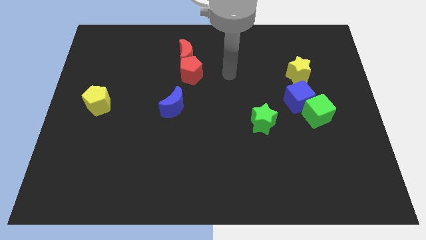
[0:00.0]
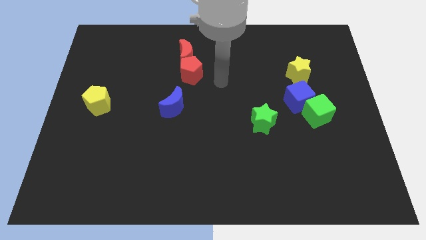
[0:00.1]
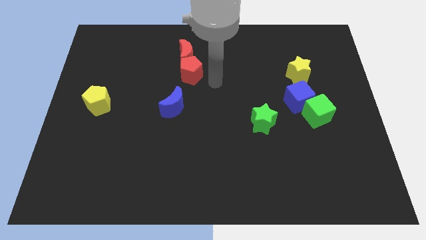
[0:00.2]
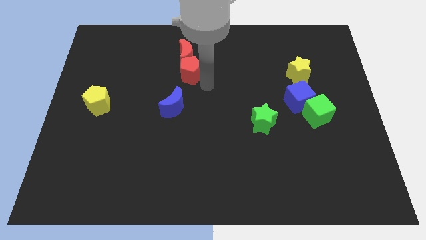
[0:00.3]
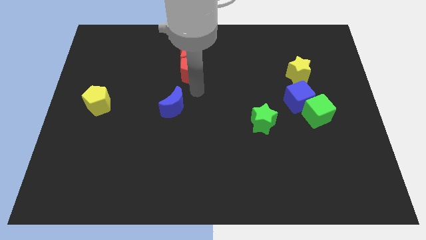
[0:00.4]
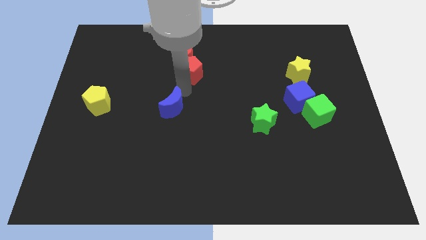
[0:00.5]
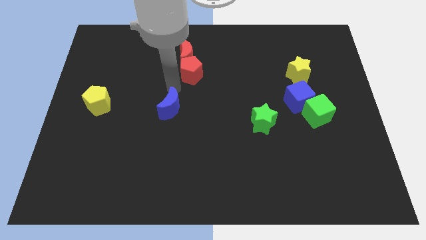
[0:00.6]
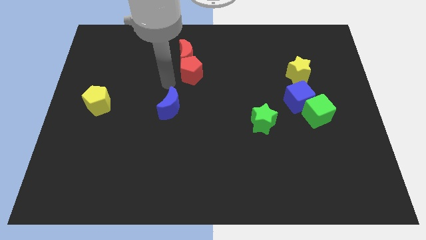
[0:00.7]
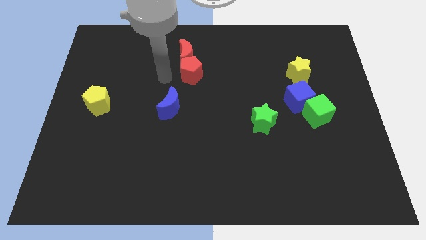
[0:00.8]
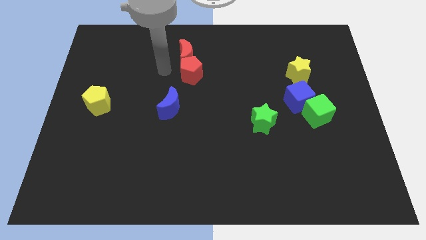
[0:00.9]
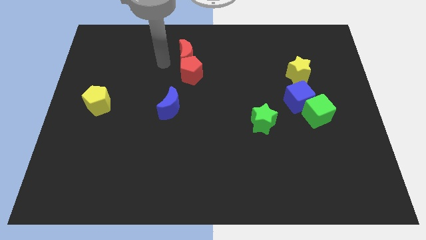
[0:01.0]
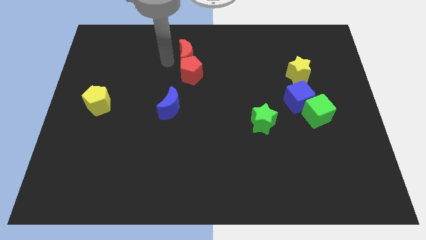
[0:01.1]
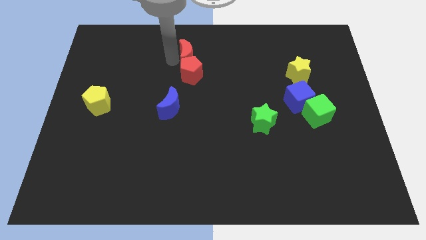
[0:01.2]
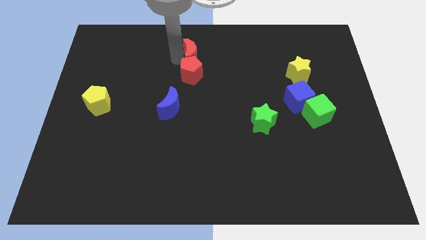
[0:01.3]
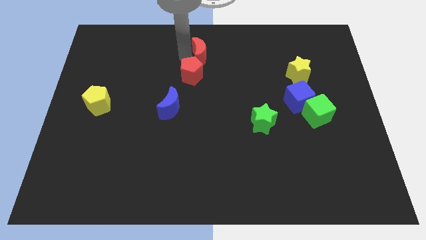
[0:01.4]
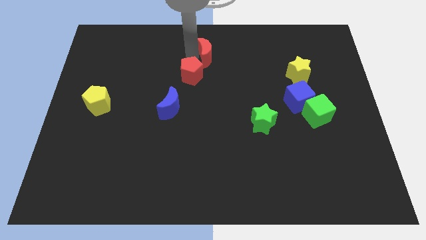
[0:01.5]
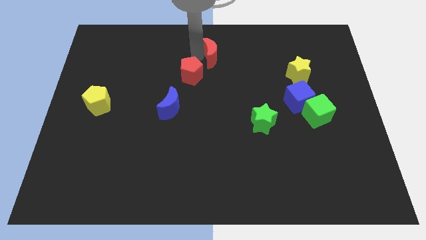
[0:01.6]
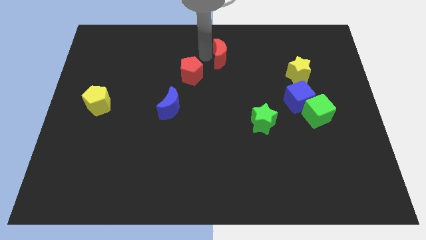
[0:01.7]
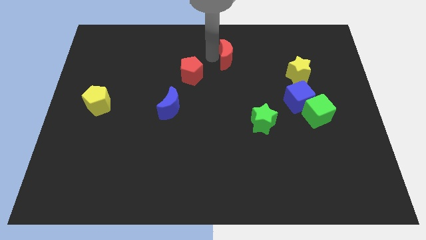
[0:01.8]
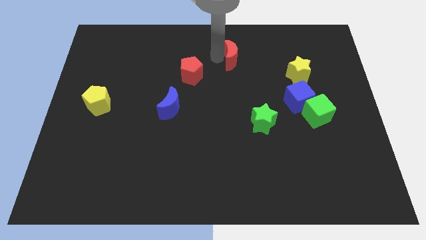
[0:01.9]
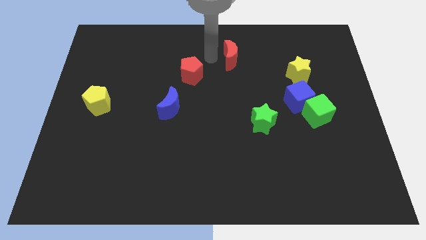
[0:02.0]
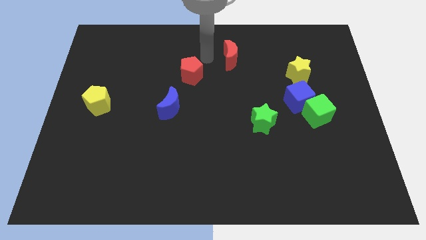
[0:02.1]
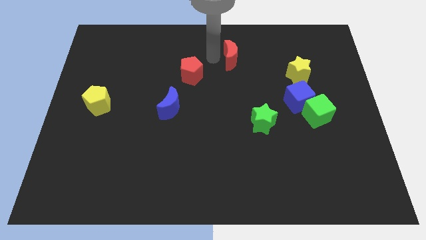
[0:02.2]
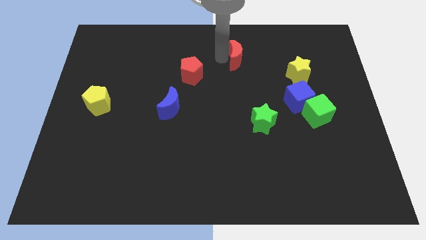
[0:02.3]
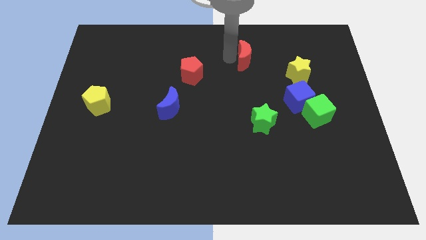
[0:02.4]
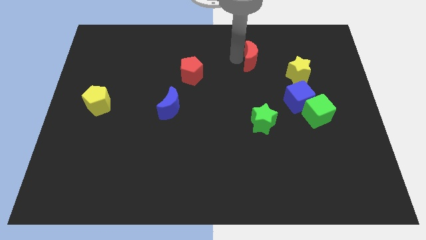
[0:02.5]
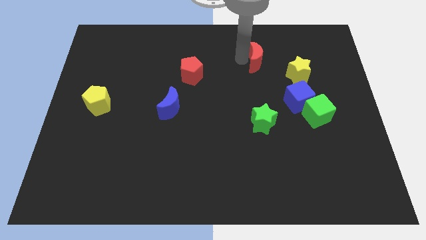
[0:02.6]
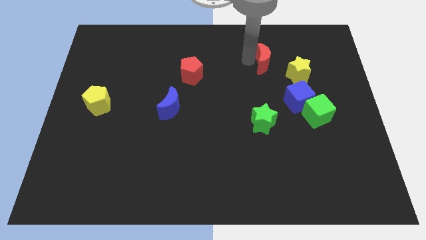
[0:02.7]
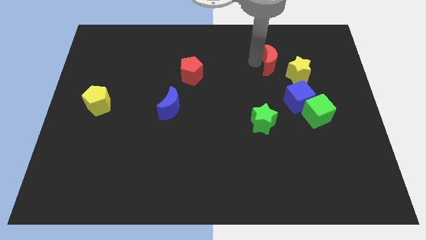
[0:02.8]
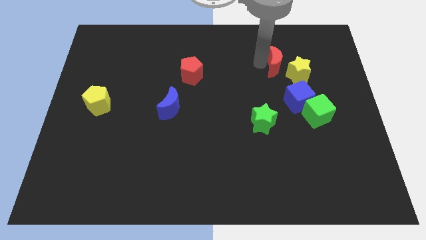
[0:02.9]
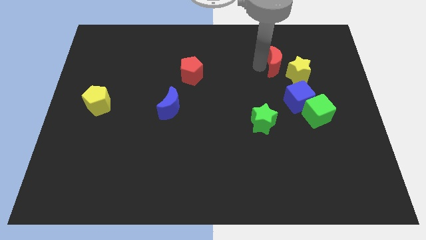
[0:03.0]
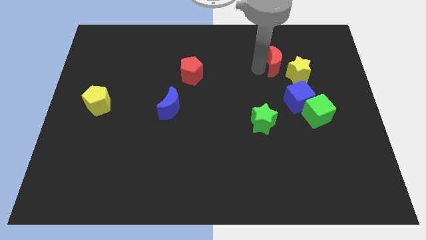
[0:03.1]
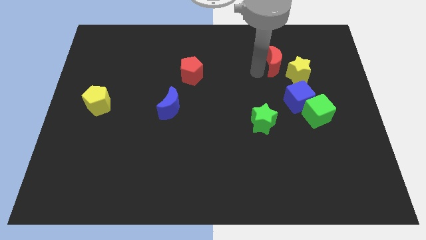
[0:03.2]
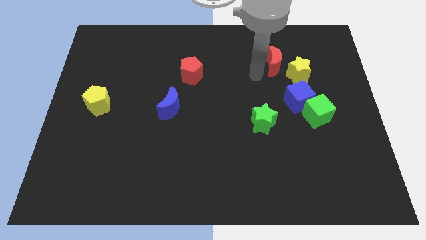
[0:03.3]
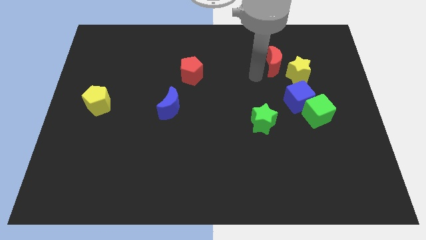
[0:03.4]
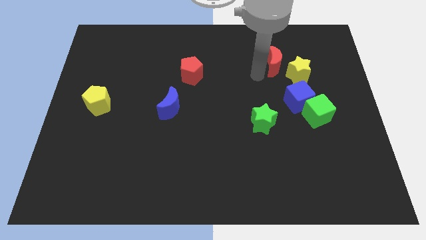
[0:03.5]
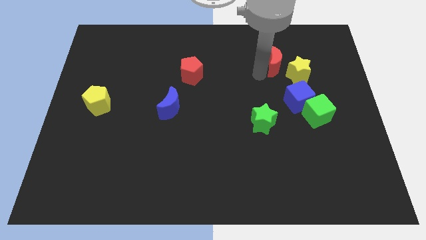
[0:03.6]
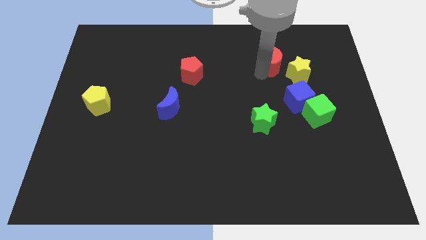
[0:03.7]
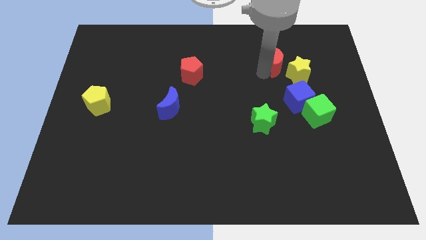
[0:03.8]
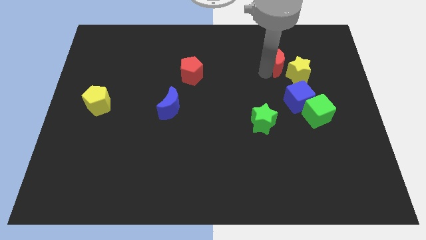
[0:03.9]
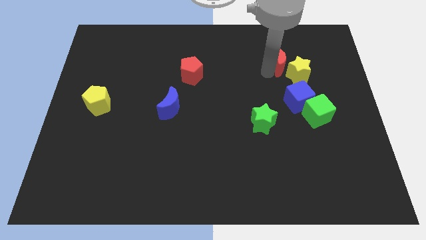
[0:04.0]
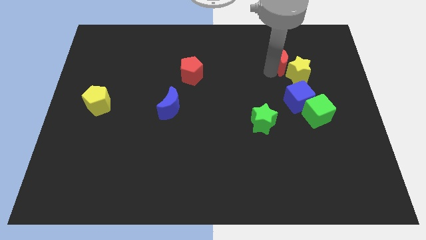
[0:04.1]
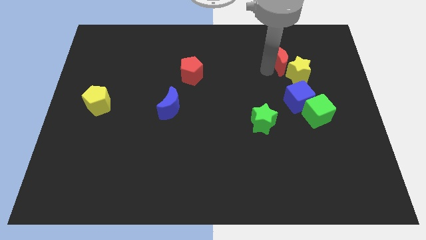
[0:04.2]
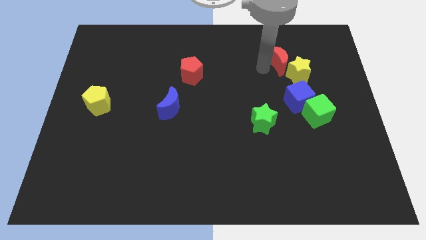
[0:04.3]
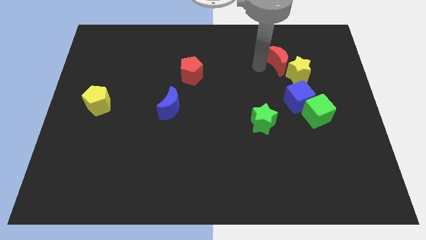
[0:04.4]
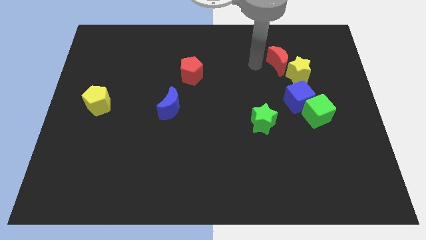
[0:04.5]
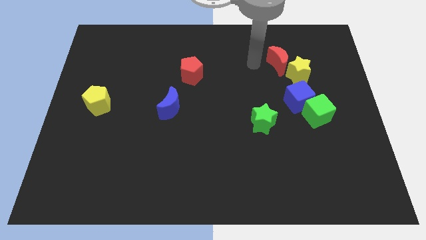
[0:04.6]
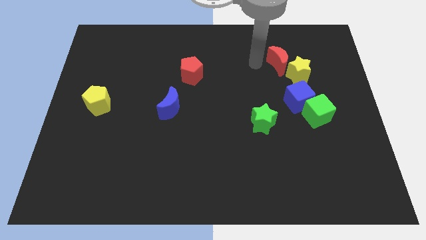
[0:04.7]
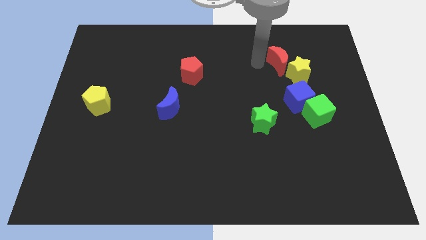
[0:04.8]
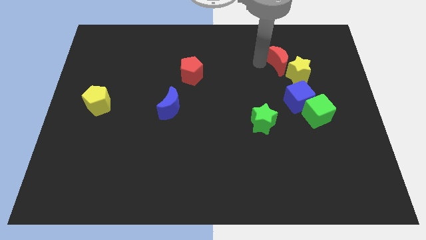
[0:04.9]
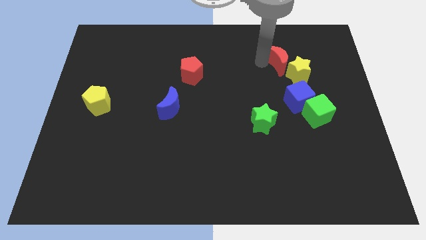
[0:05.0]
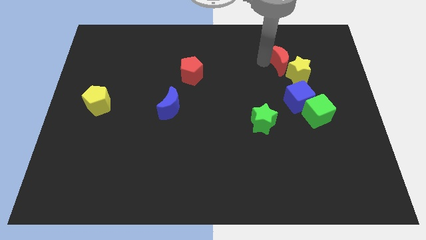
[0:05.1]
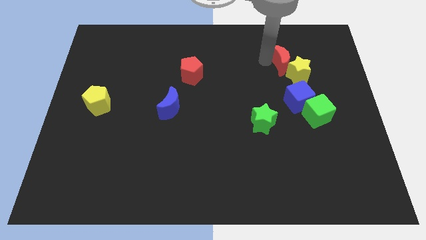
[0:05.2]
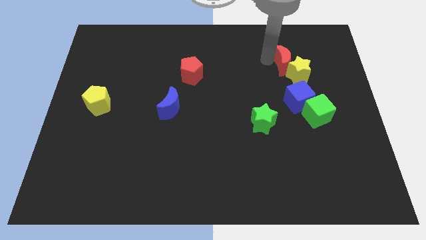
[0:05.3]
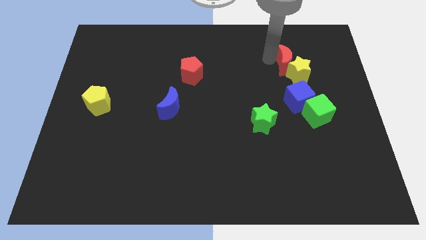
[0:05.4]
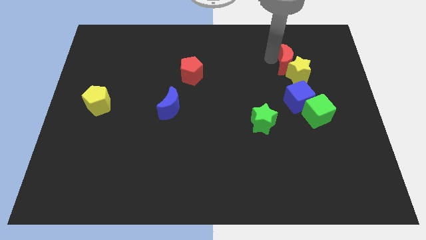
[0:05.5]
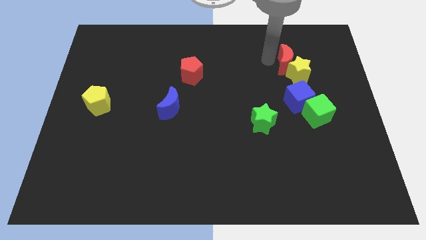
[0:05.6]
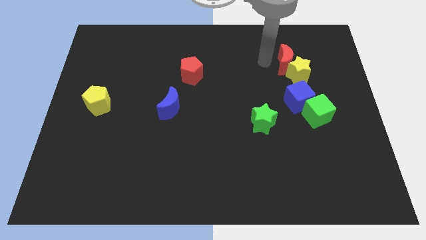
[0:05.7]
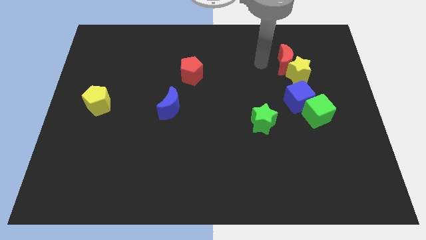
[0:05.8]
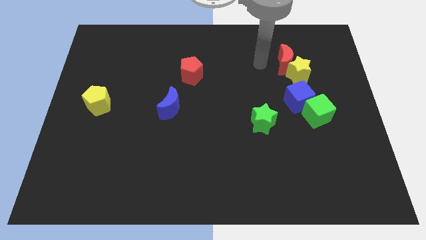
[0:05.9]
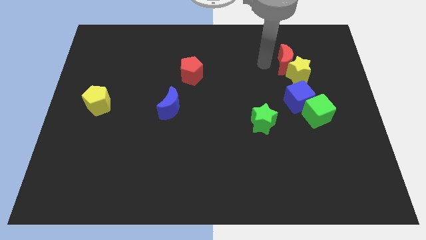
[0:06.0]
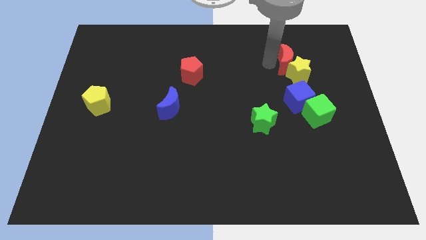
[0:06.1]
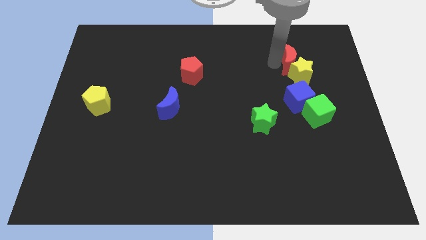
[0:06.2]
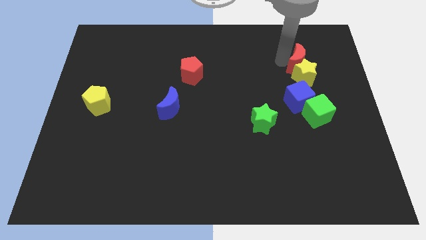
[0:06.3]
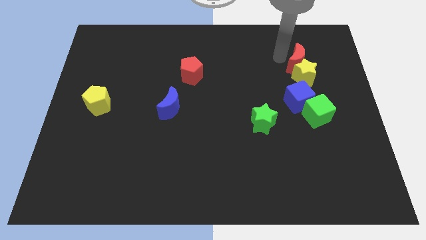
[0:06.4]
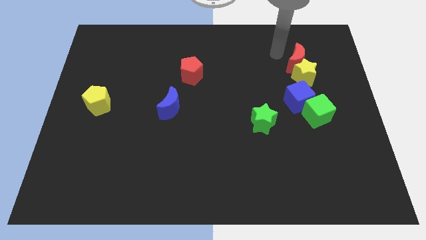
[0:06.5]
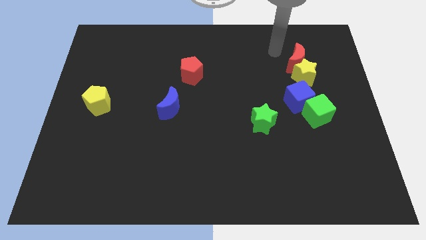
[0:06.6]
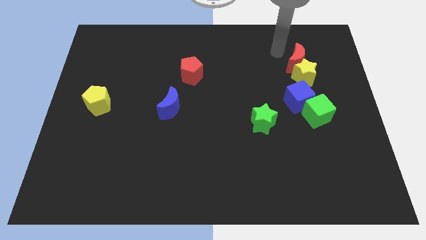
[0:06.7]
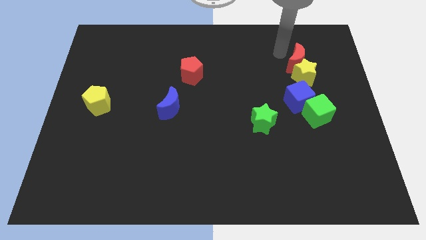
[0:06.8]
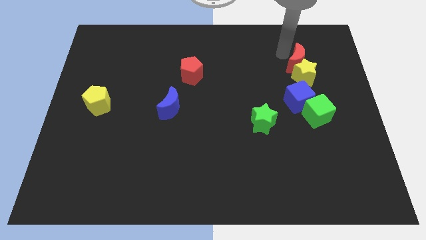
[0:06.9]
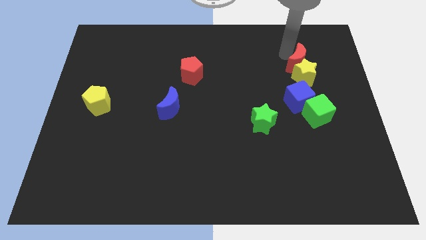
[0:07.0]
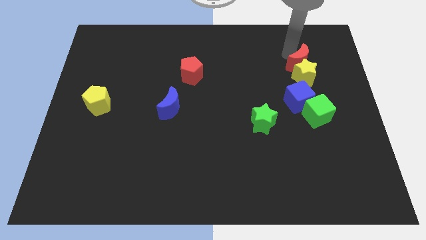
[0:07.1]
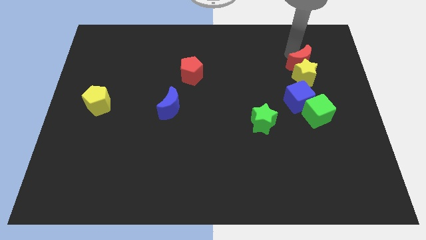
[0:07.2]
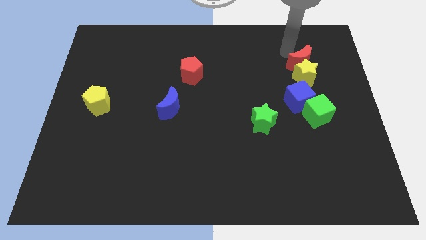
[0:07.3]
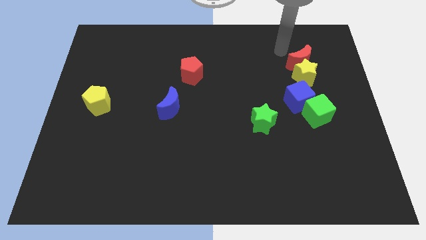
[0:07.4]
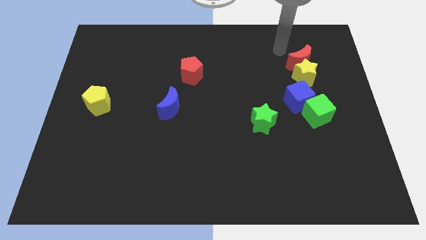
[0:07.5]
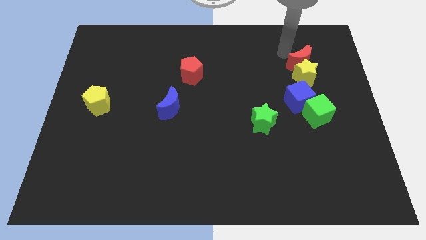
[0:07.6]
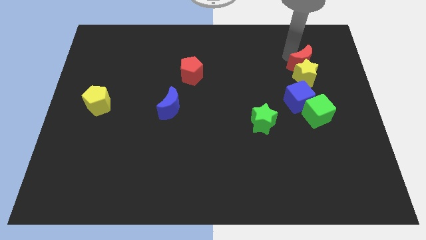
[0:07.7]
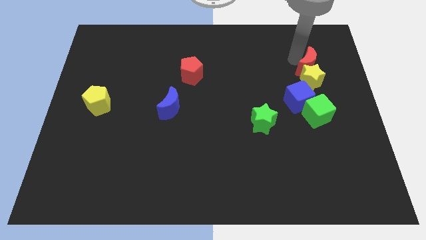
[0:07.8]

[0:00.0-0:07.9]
push the red moon above the green cube
